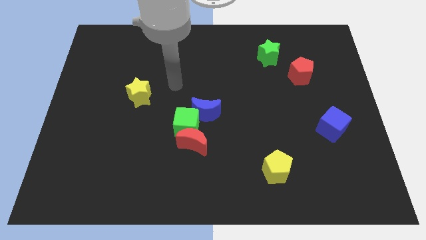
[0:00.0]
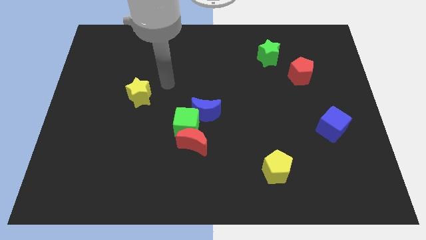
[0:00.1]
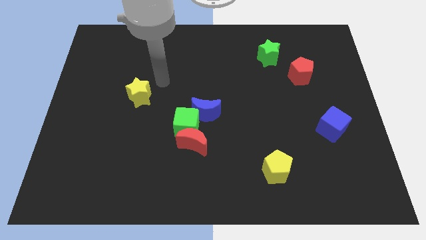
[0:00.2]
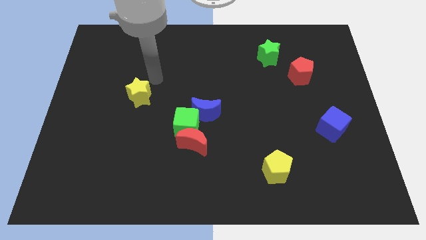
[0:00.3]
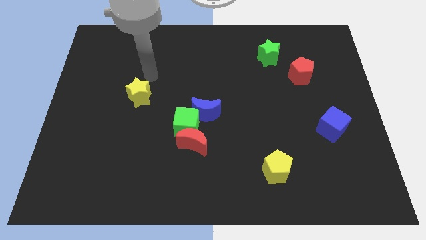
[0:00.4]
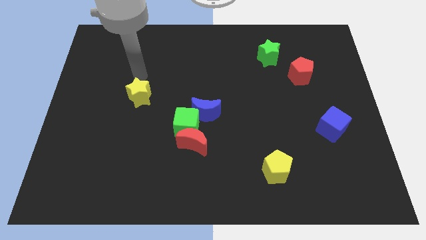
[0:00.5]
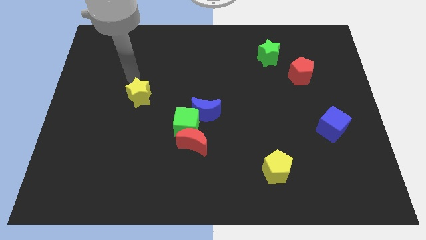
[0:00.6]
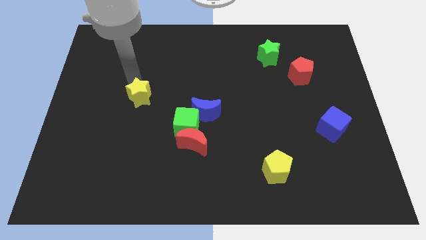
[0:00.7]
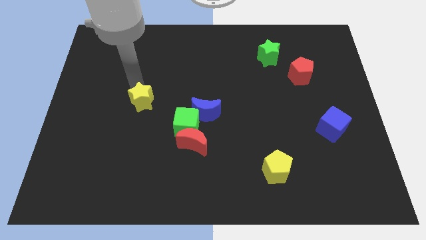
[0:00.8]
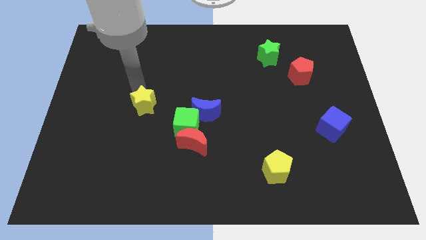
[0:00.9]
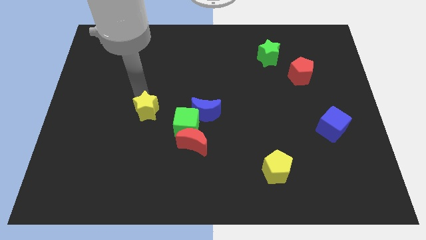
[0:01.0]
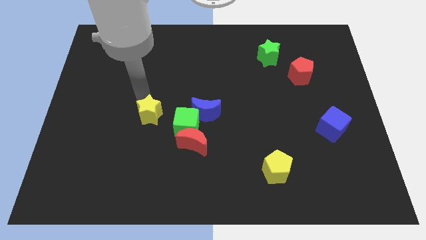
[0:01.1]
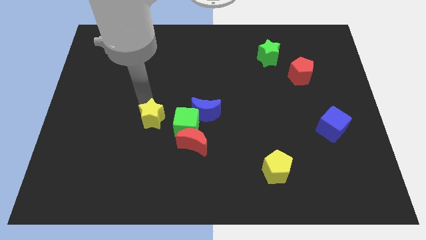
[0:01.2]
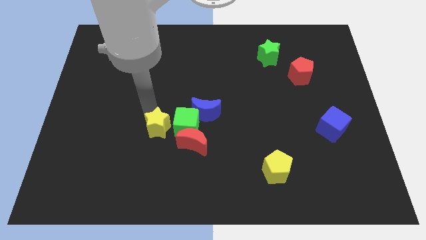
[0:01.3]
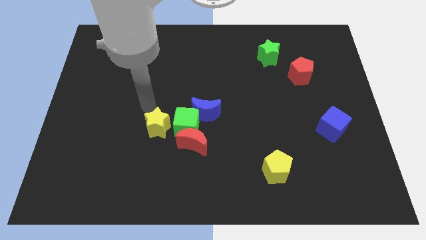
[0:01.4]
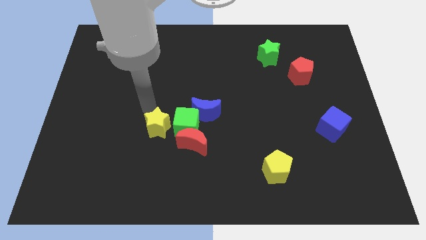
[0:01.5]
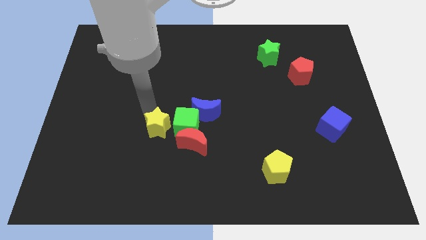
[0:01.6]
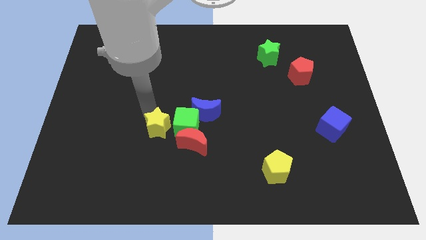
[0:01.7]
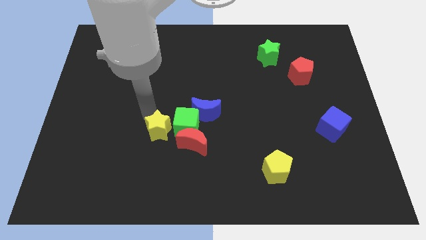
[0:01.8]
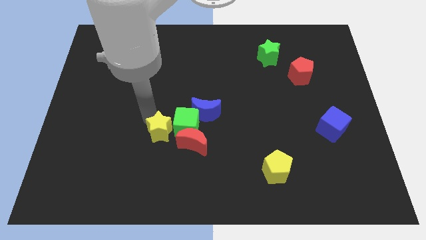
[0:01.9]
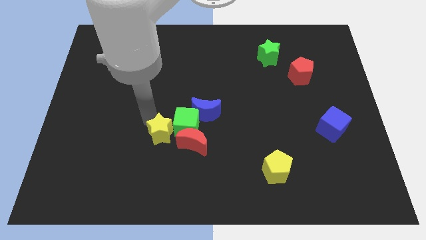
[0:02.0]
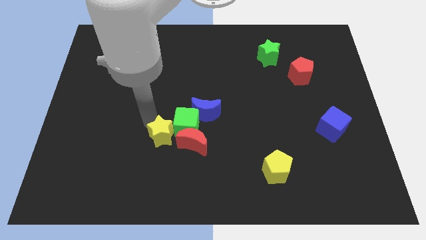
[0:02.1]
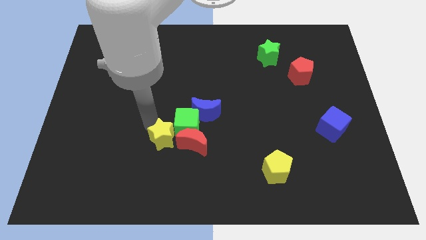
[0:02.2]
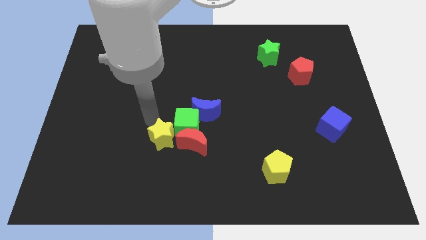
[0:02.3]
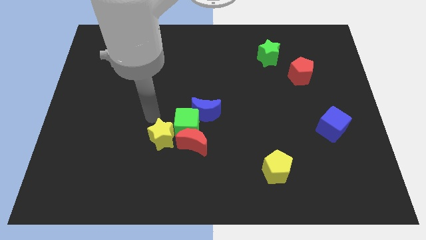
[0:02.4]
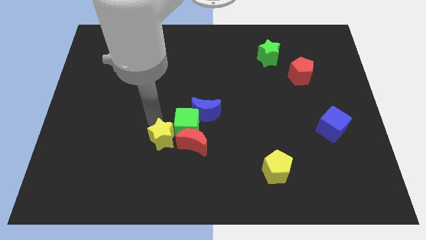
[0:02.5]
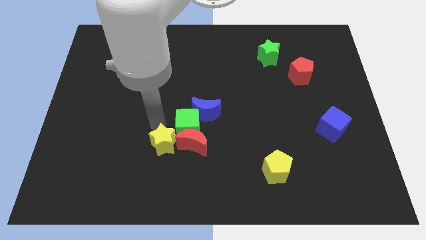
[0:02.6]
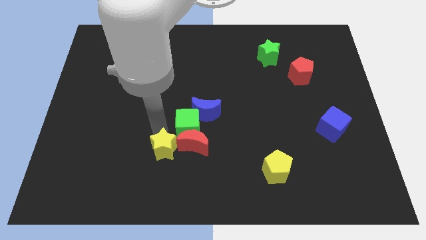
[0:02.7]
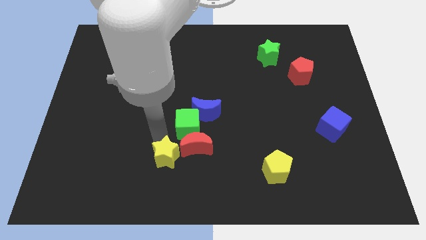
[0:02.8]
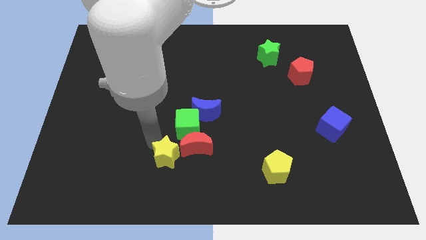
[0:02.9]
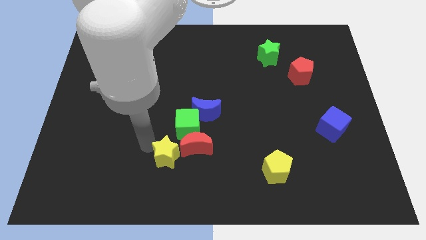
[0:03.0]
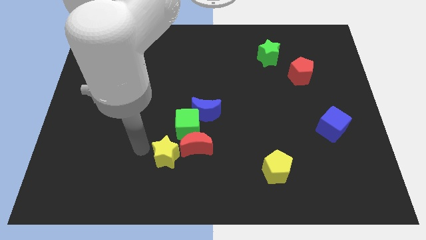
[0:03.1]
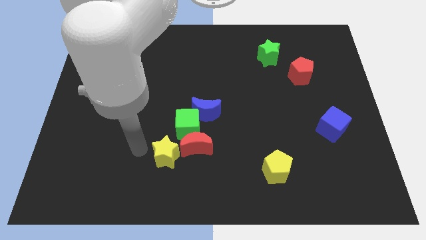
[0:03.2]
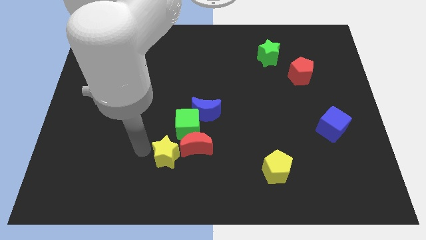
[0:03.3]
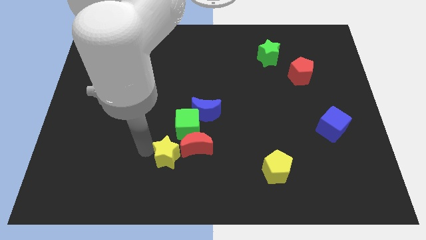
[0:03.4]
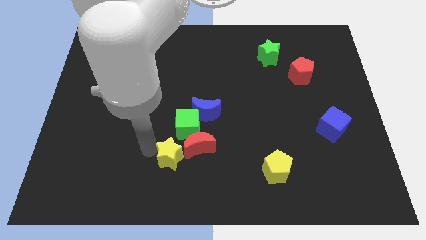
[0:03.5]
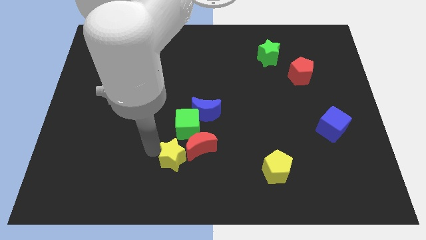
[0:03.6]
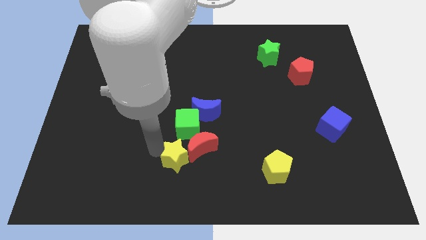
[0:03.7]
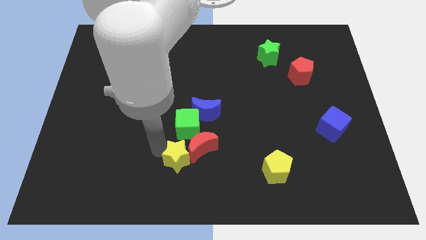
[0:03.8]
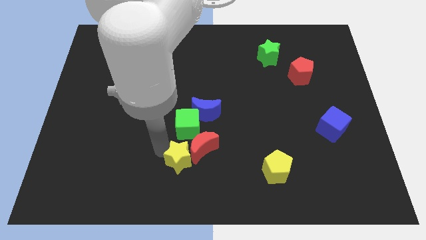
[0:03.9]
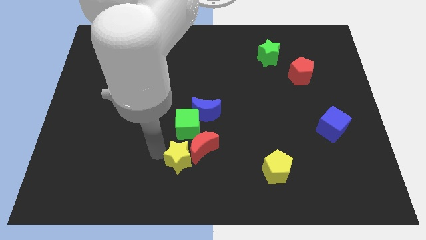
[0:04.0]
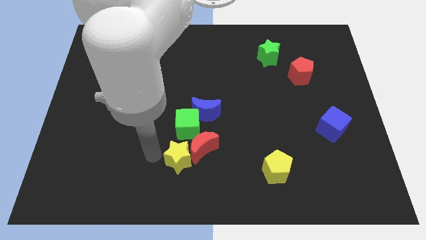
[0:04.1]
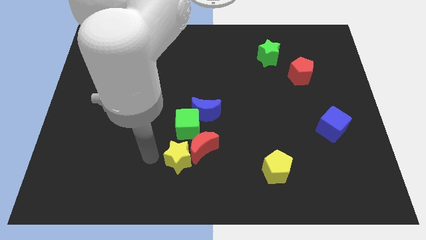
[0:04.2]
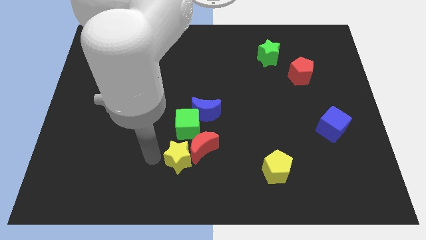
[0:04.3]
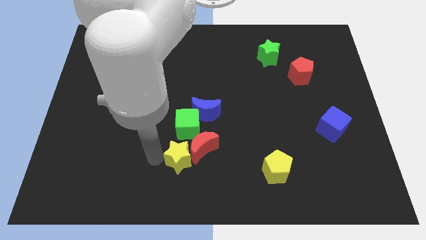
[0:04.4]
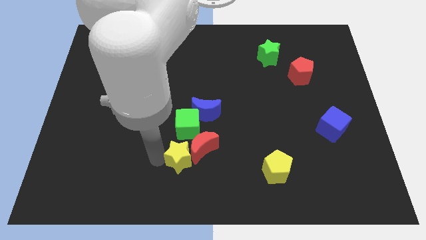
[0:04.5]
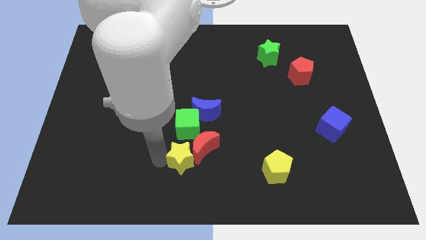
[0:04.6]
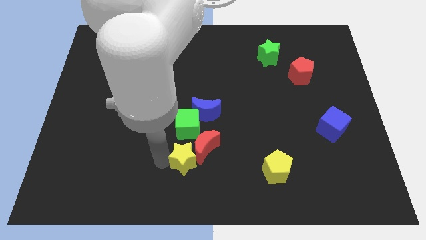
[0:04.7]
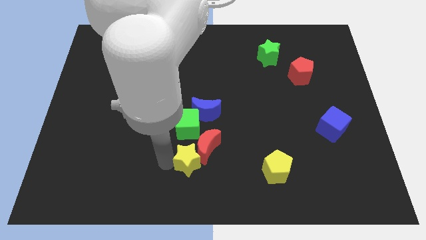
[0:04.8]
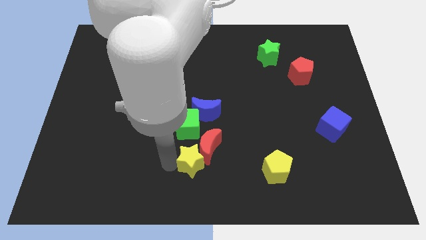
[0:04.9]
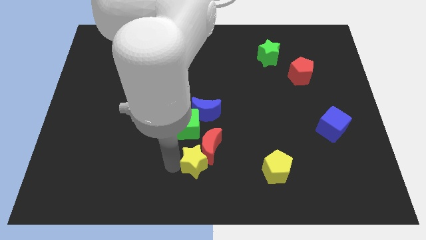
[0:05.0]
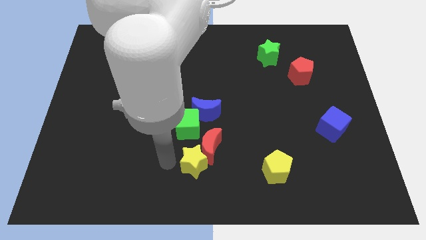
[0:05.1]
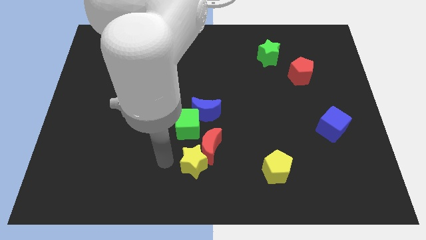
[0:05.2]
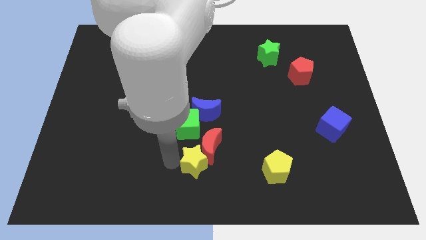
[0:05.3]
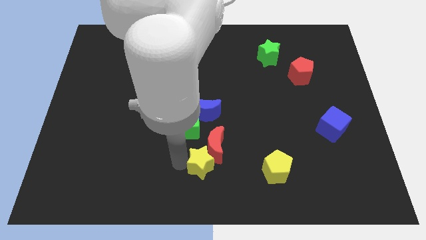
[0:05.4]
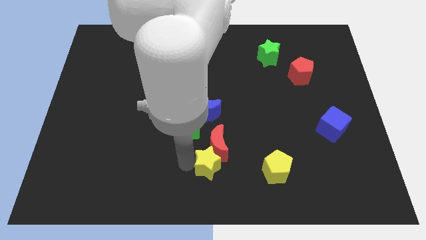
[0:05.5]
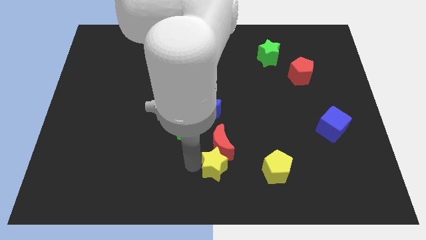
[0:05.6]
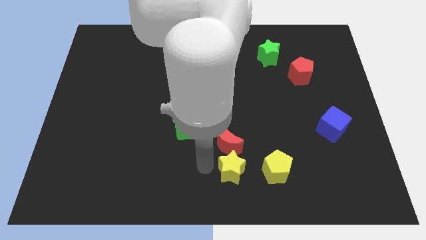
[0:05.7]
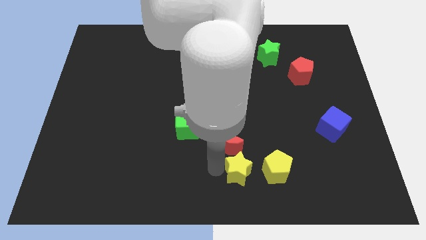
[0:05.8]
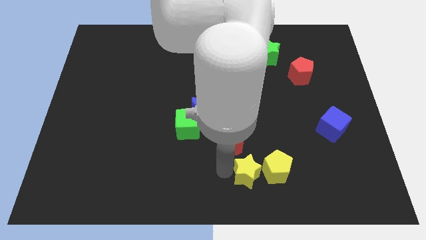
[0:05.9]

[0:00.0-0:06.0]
slide the yellow star to the yellow pentagon

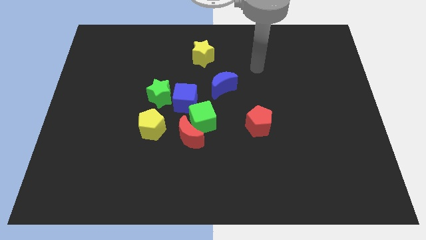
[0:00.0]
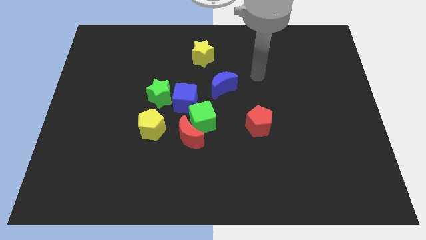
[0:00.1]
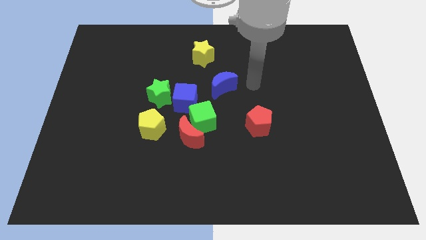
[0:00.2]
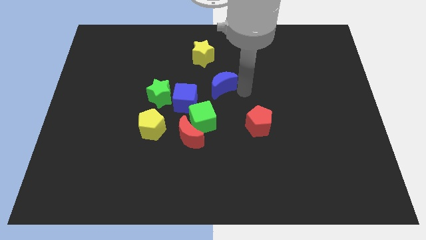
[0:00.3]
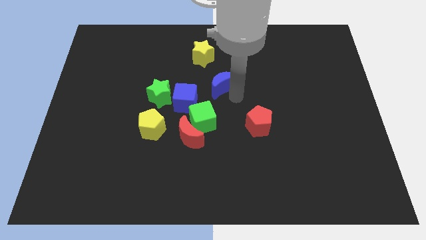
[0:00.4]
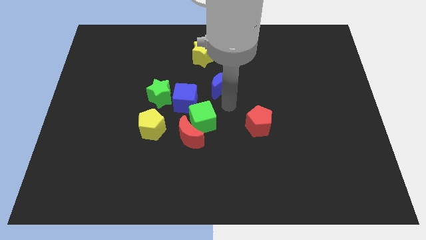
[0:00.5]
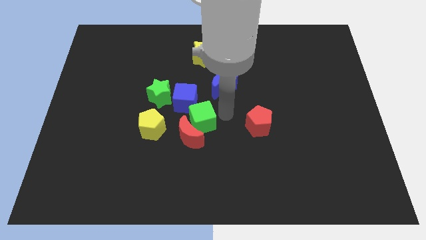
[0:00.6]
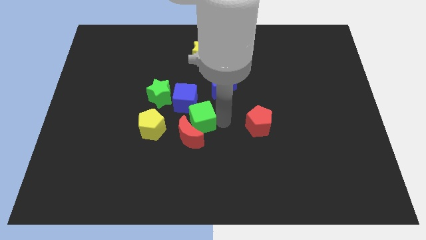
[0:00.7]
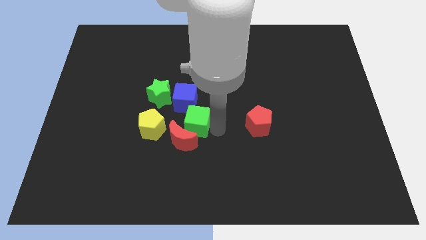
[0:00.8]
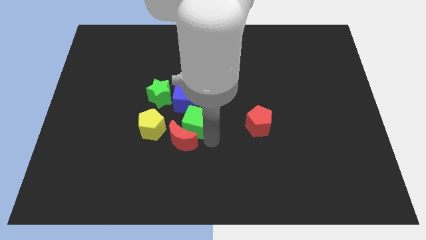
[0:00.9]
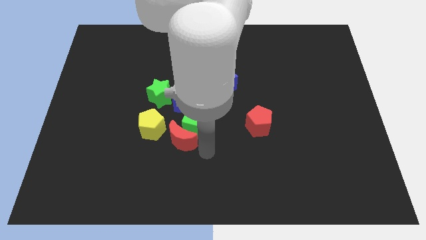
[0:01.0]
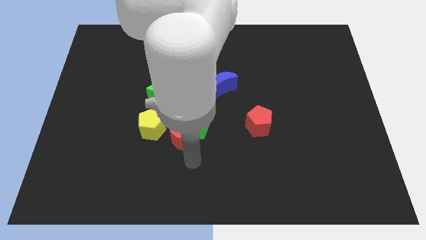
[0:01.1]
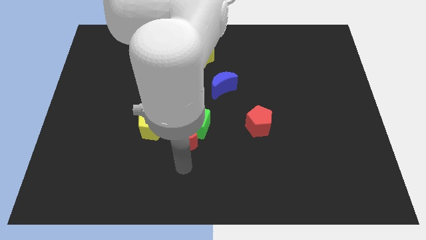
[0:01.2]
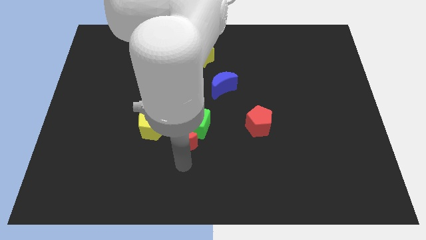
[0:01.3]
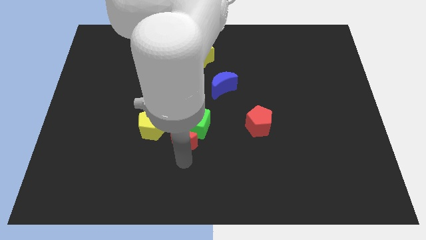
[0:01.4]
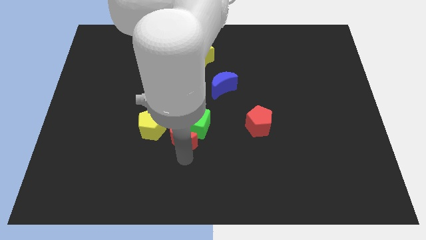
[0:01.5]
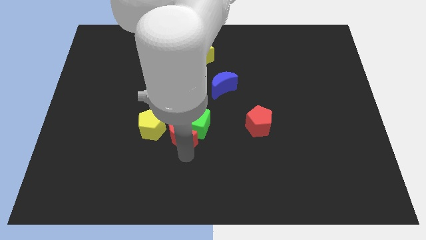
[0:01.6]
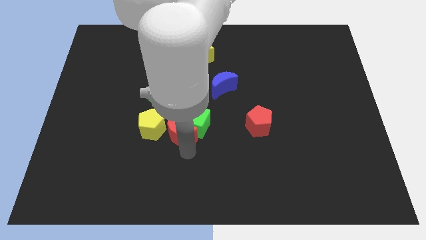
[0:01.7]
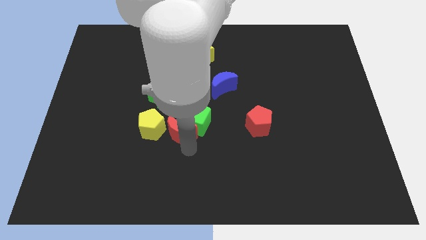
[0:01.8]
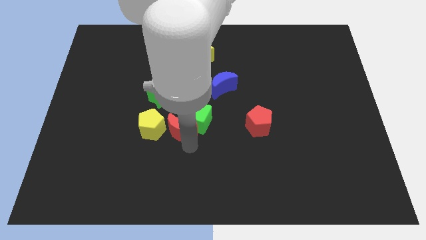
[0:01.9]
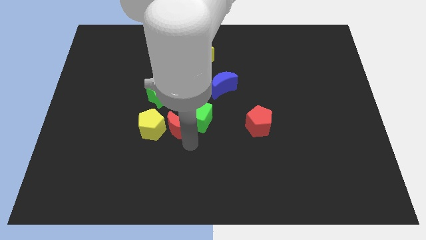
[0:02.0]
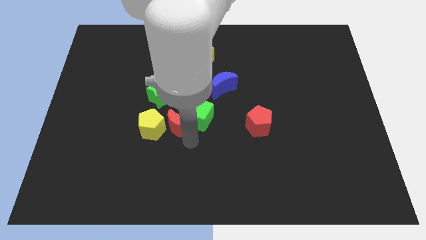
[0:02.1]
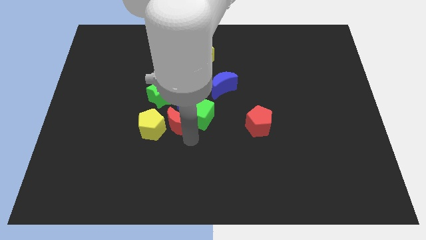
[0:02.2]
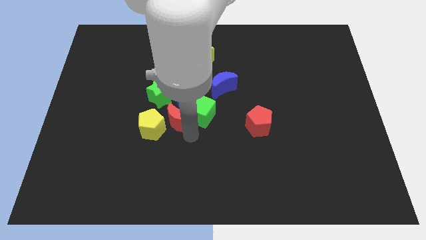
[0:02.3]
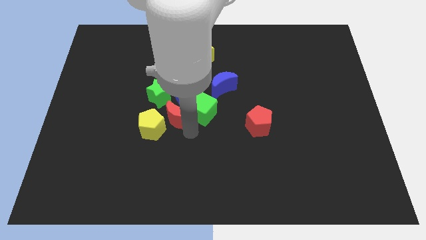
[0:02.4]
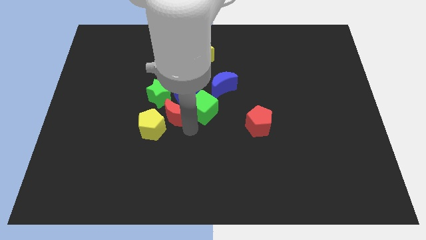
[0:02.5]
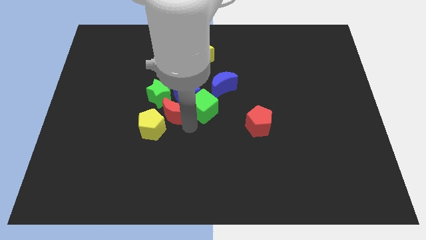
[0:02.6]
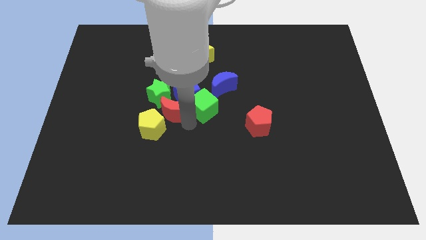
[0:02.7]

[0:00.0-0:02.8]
slide the red moon close to the blue cube
